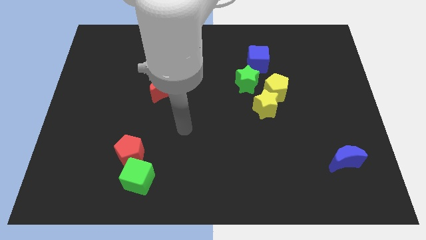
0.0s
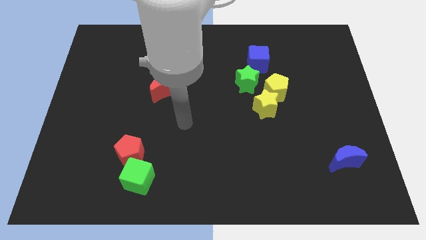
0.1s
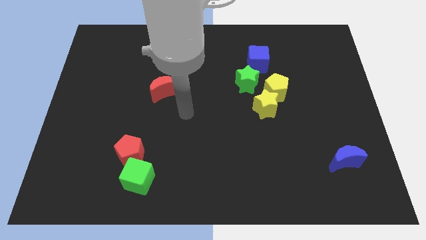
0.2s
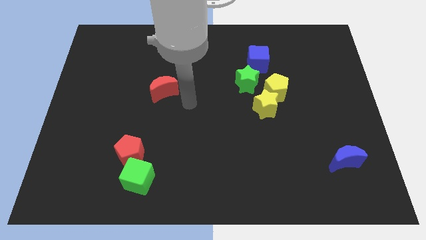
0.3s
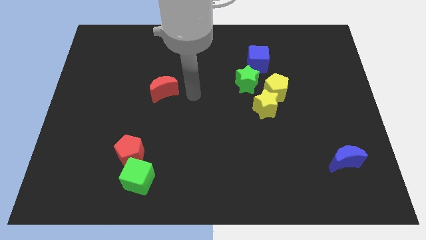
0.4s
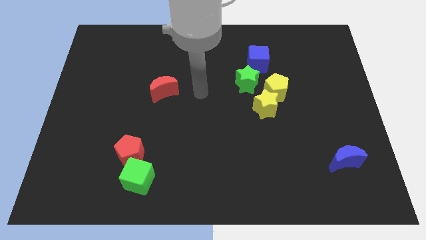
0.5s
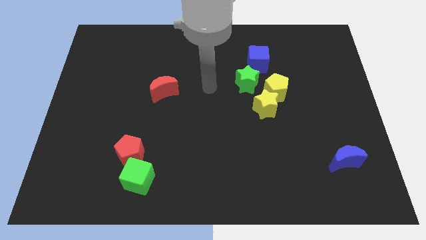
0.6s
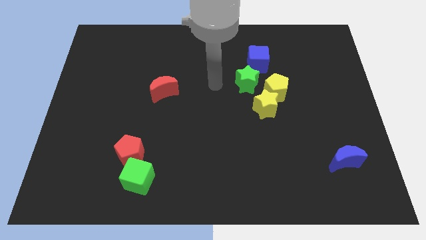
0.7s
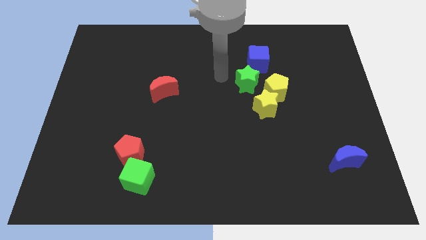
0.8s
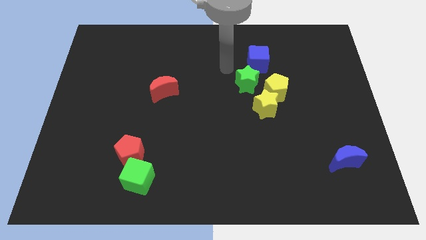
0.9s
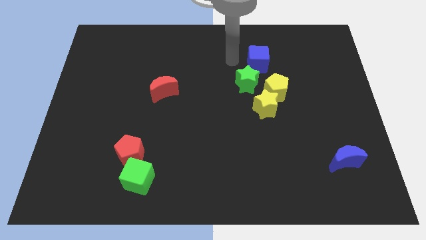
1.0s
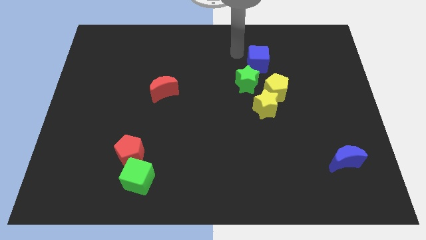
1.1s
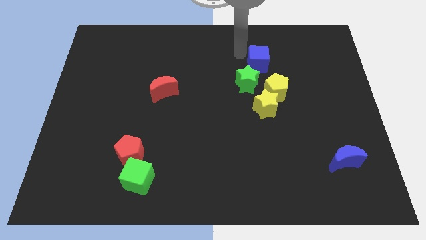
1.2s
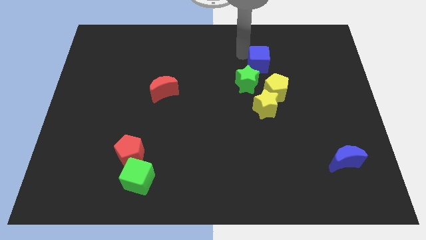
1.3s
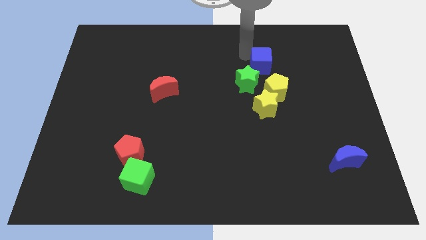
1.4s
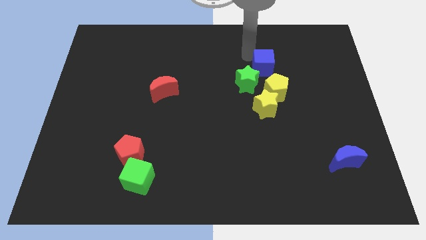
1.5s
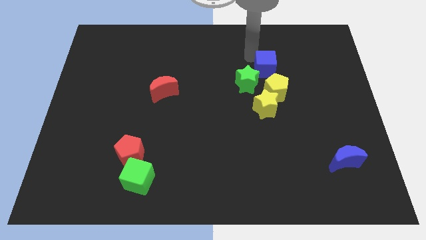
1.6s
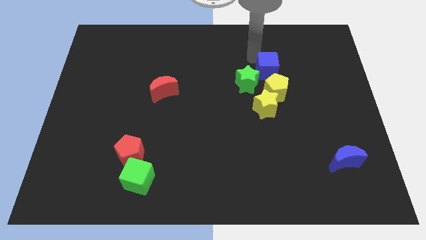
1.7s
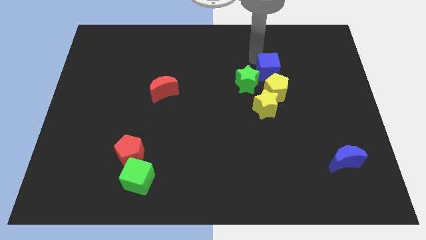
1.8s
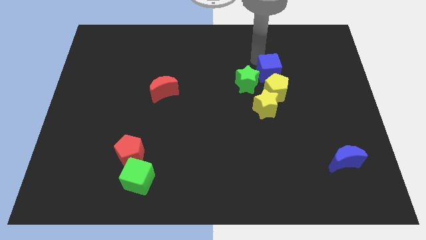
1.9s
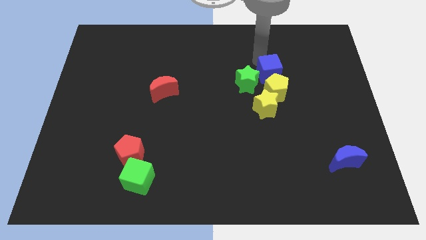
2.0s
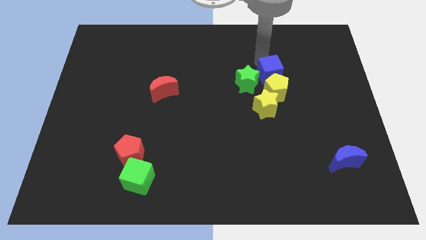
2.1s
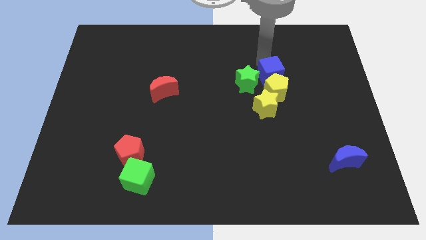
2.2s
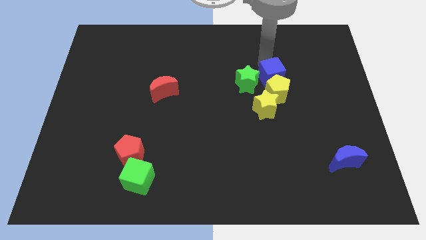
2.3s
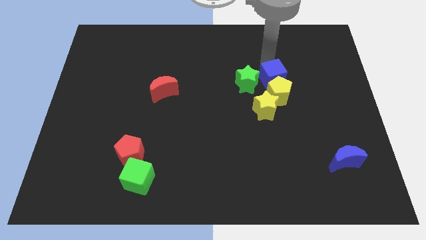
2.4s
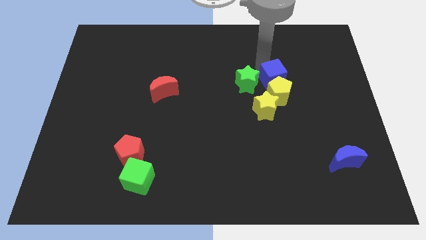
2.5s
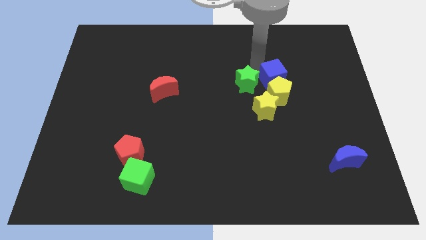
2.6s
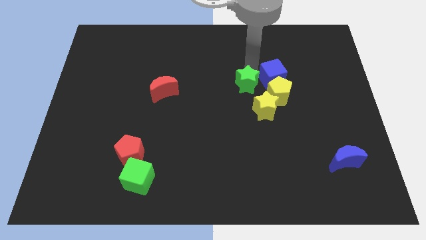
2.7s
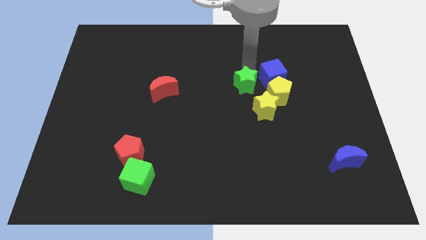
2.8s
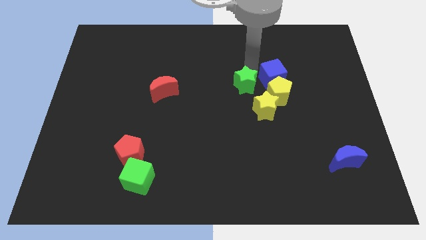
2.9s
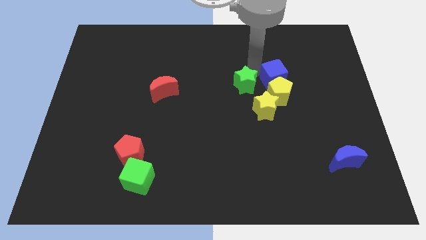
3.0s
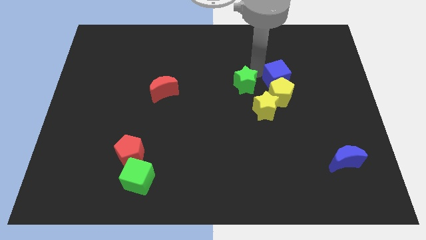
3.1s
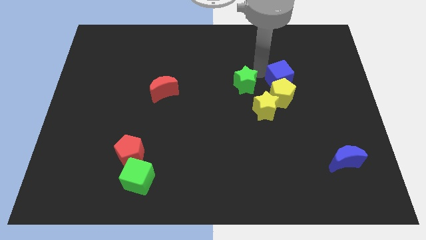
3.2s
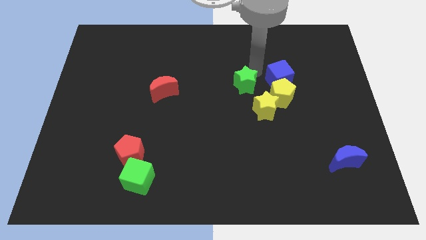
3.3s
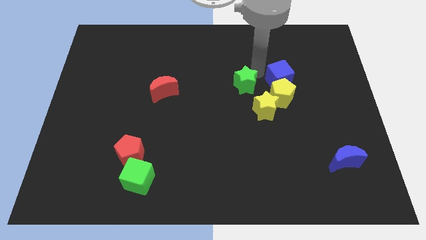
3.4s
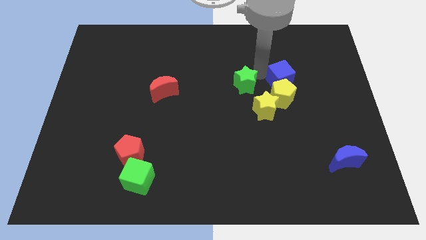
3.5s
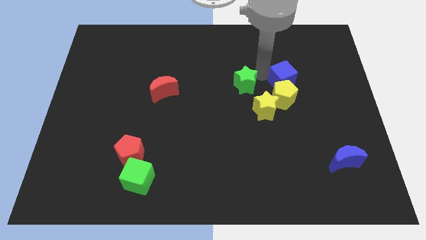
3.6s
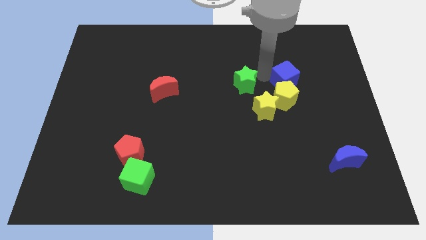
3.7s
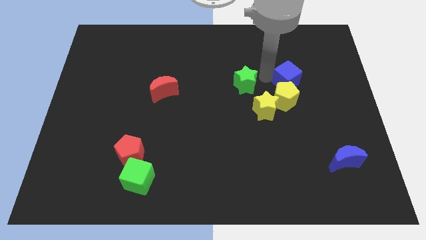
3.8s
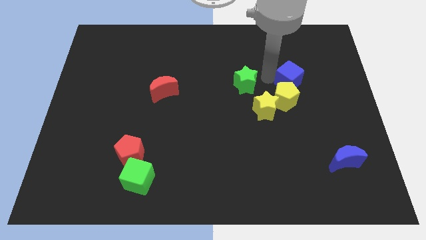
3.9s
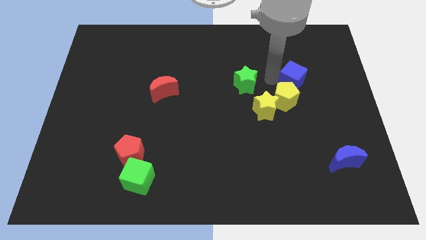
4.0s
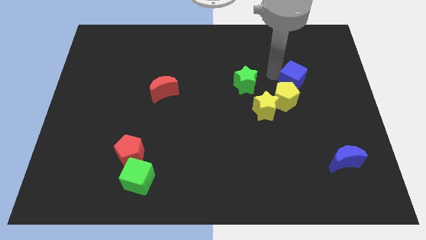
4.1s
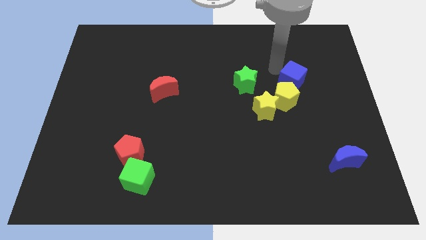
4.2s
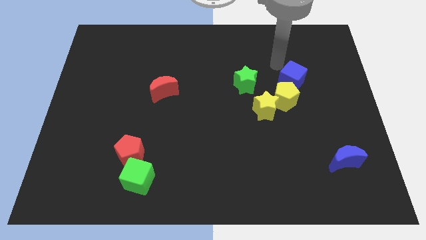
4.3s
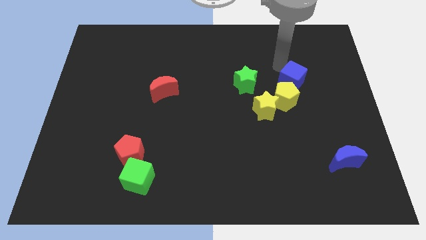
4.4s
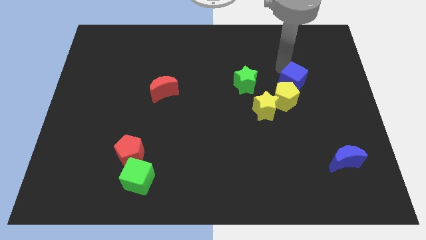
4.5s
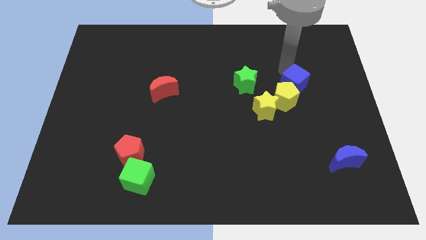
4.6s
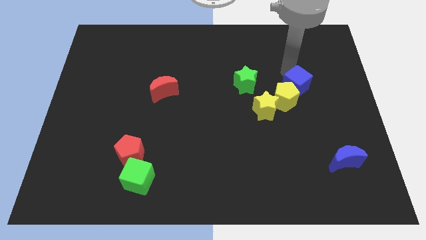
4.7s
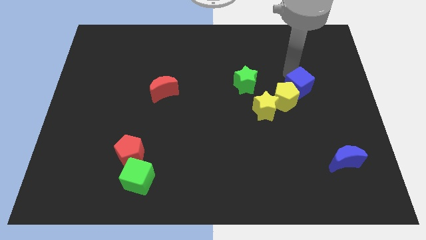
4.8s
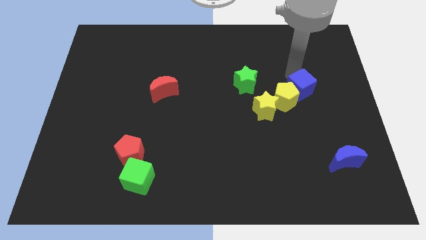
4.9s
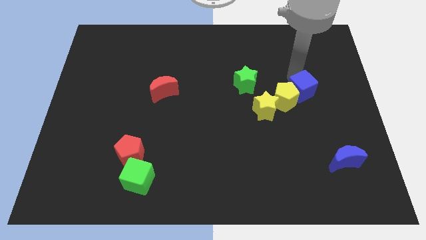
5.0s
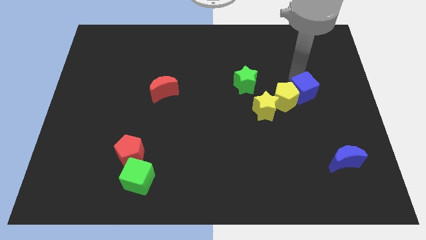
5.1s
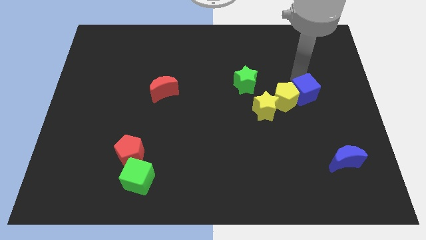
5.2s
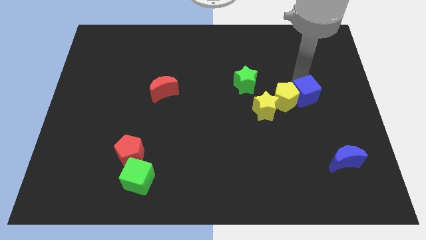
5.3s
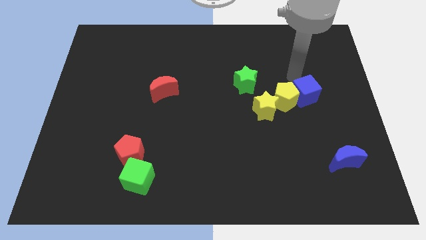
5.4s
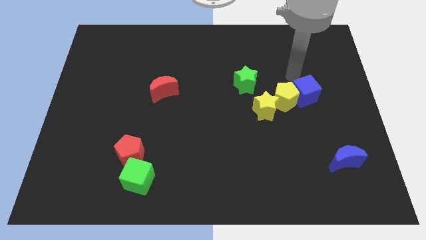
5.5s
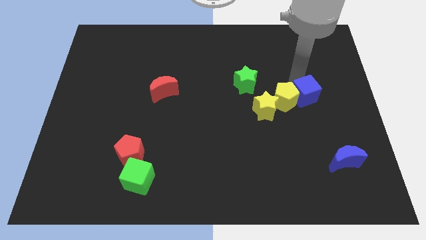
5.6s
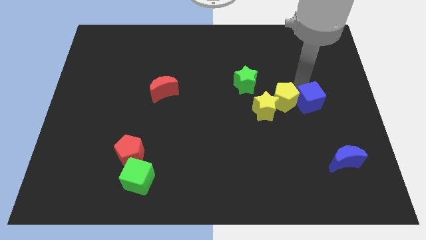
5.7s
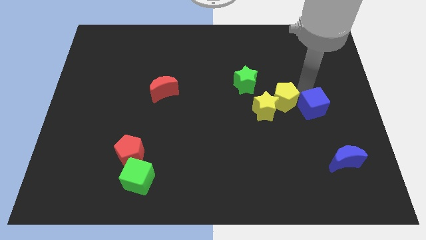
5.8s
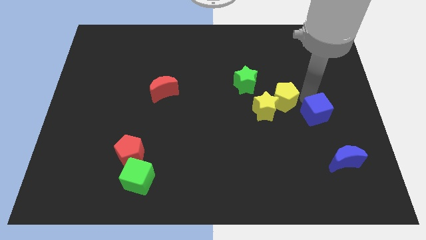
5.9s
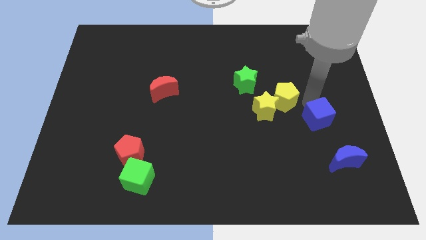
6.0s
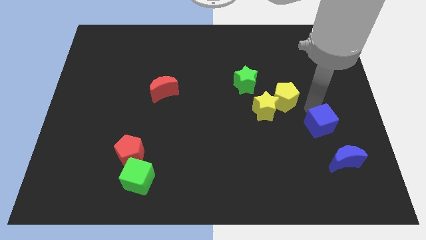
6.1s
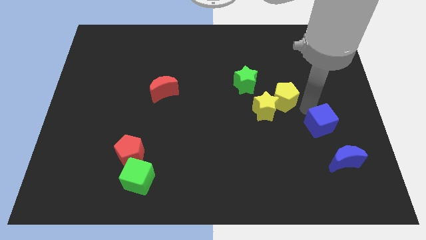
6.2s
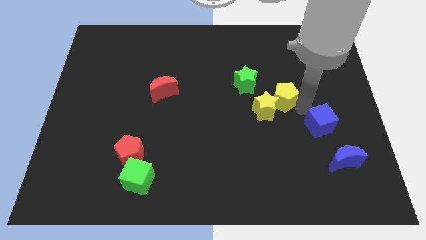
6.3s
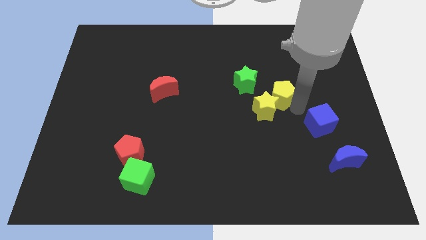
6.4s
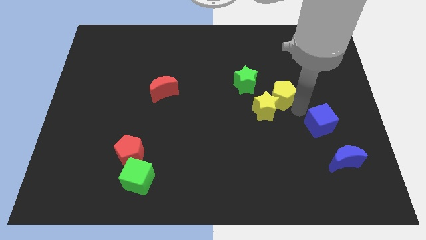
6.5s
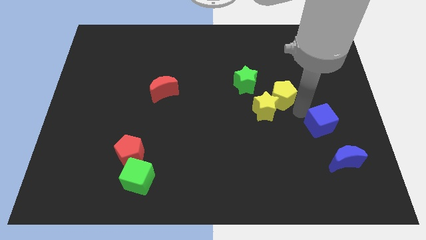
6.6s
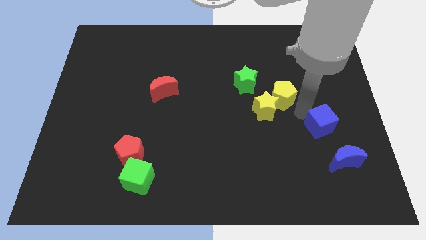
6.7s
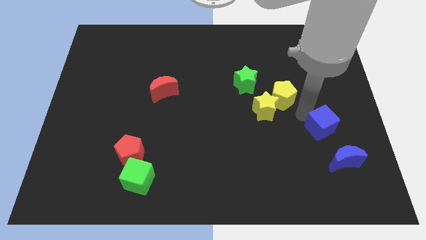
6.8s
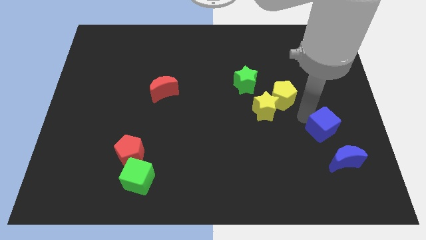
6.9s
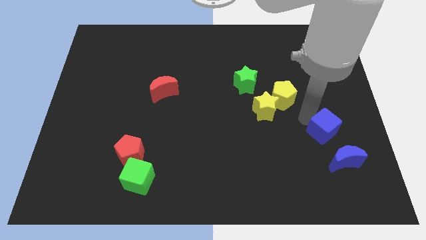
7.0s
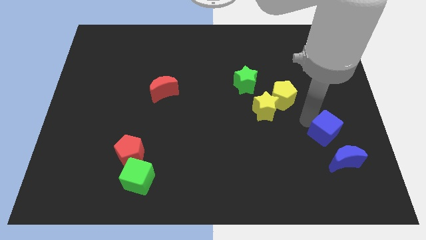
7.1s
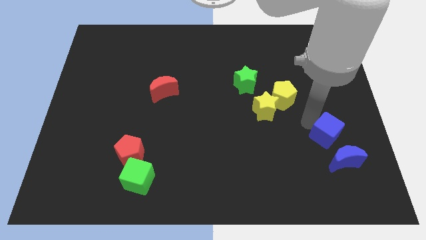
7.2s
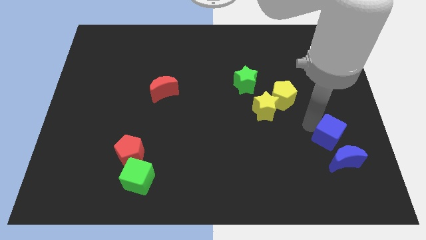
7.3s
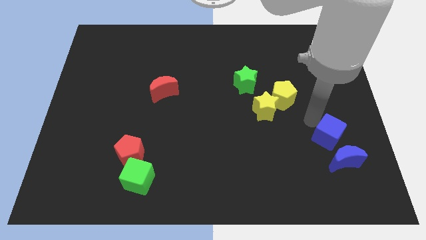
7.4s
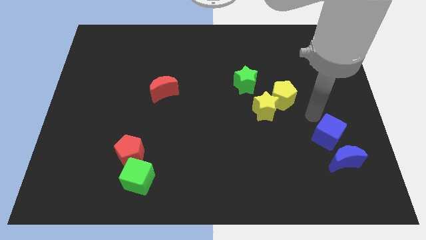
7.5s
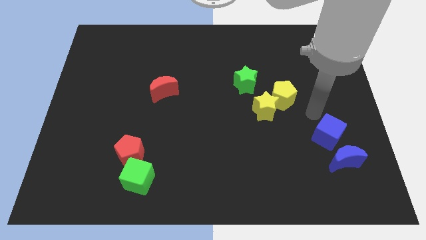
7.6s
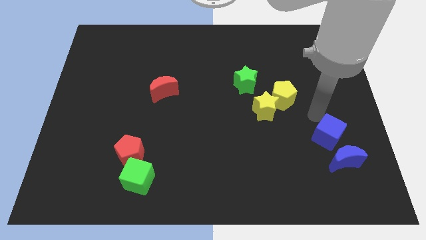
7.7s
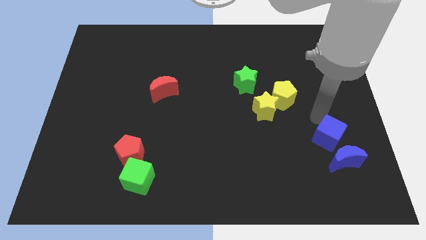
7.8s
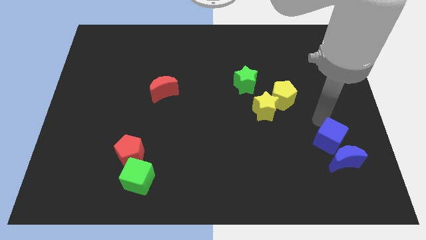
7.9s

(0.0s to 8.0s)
move the blue cube close to the blue moon

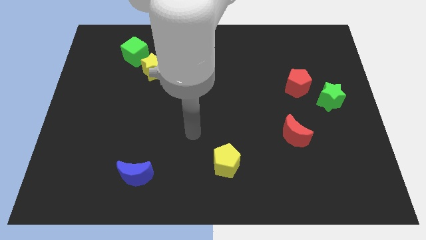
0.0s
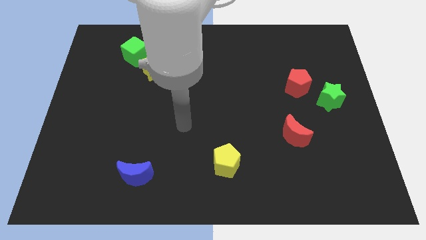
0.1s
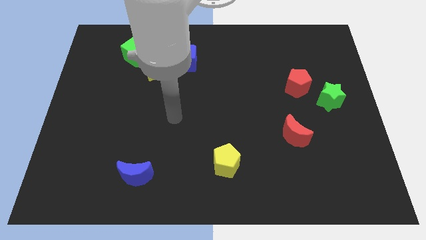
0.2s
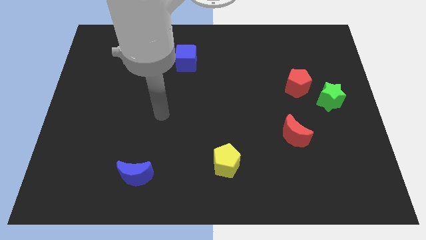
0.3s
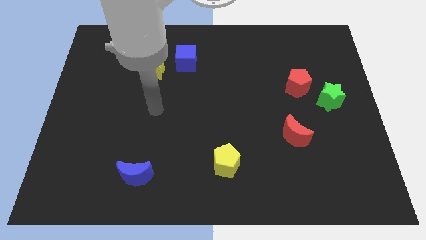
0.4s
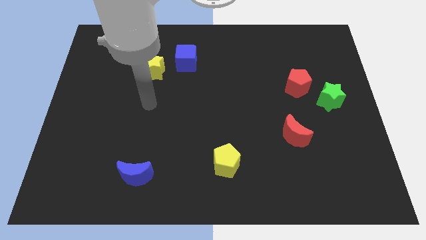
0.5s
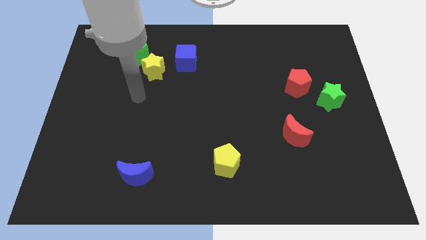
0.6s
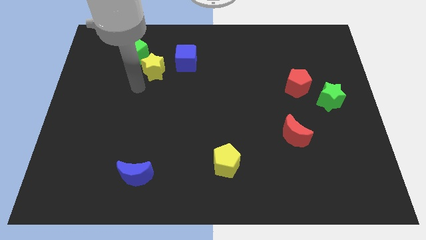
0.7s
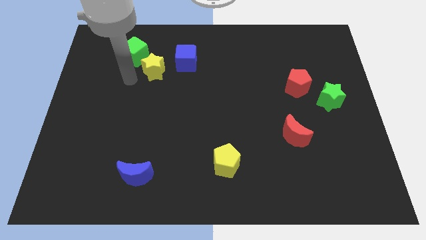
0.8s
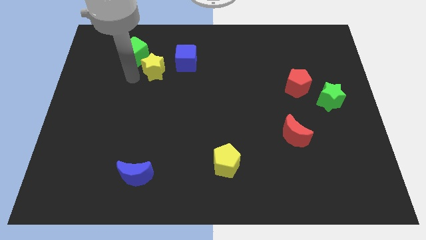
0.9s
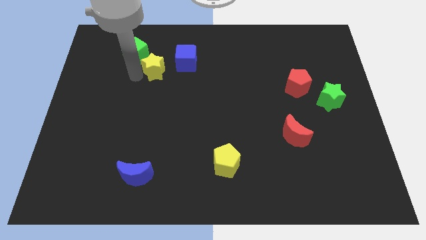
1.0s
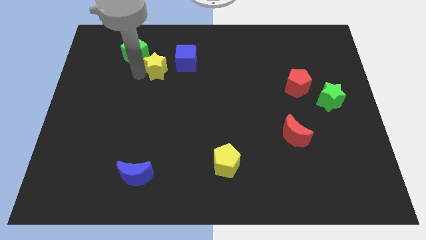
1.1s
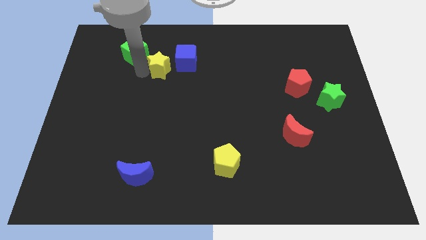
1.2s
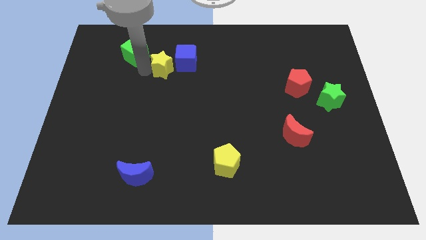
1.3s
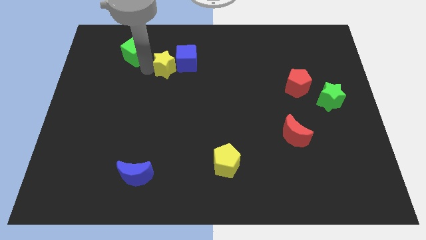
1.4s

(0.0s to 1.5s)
put the yellow star close to the blue cube
